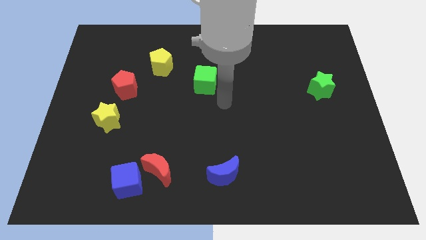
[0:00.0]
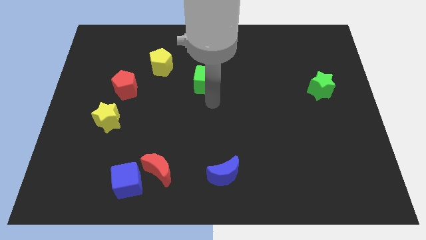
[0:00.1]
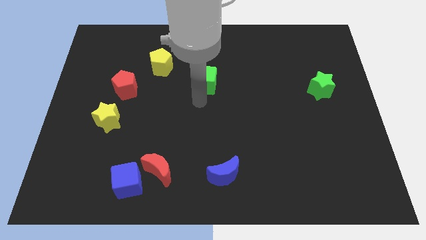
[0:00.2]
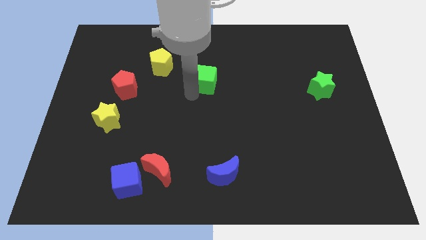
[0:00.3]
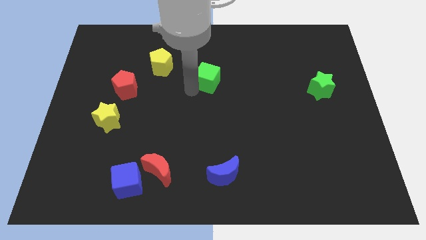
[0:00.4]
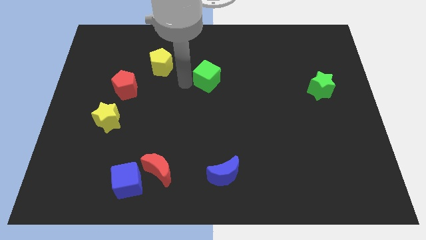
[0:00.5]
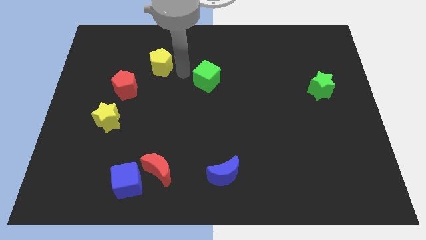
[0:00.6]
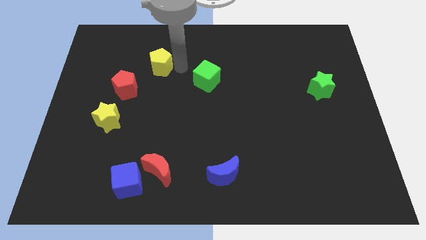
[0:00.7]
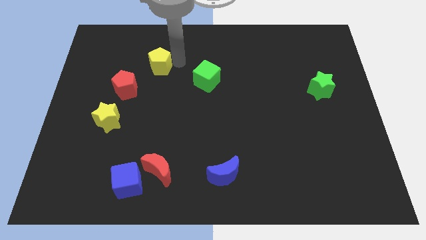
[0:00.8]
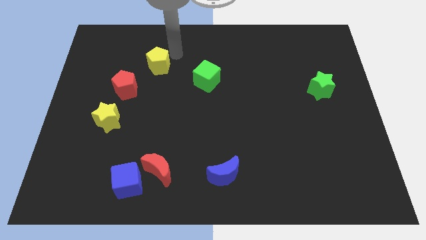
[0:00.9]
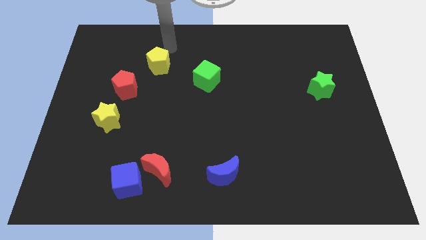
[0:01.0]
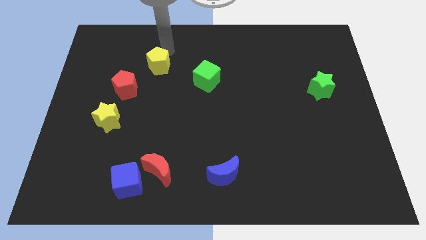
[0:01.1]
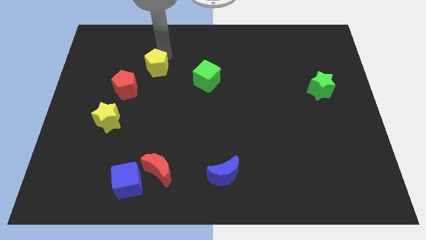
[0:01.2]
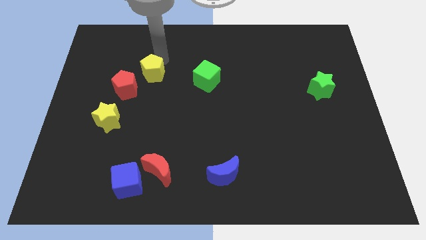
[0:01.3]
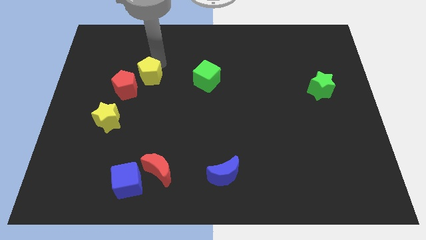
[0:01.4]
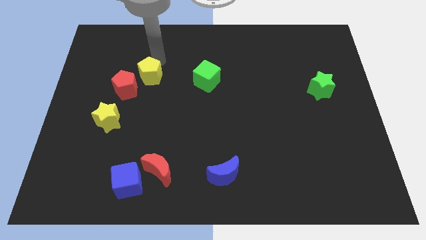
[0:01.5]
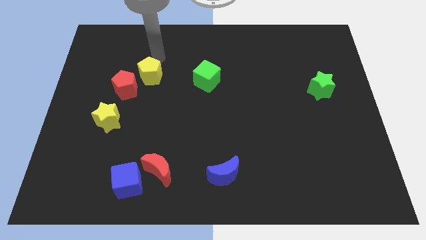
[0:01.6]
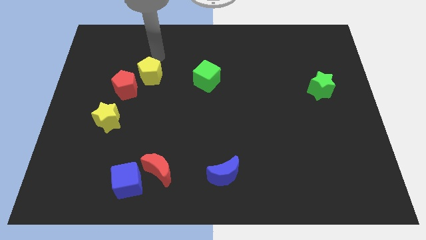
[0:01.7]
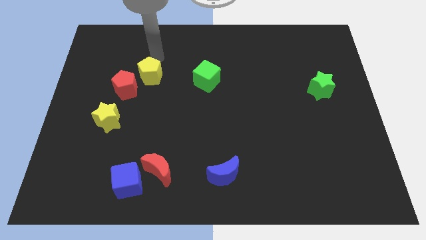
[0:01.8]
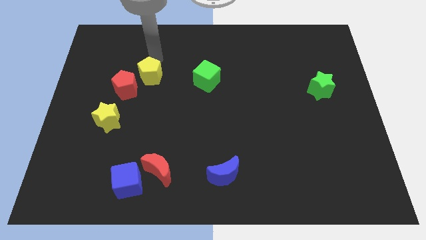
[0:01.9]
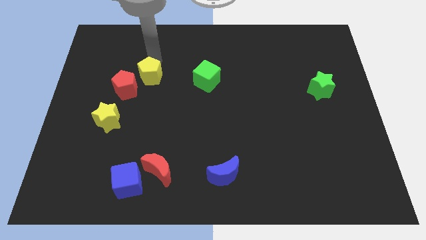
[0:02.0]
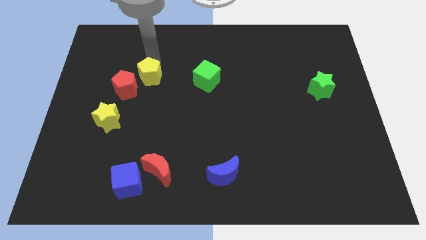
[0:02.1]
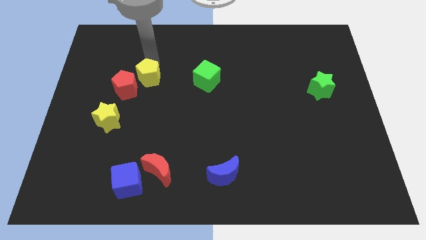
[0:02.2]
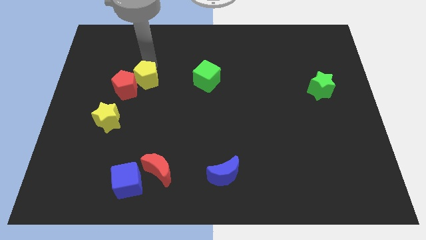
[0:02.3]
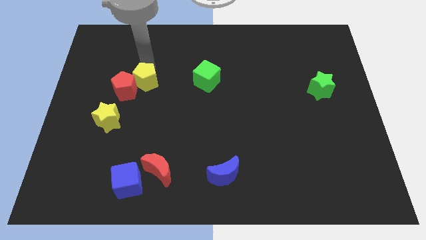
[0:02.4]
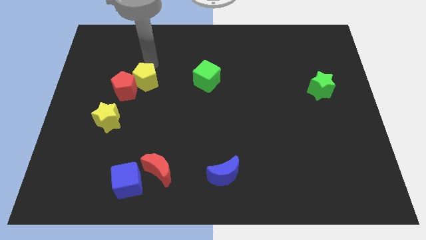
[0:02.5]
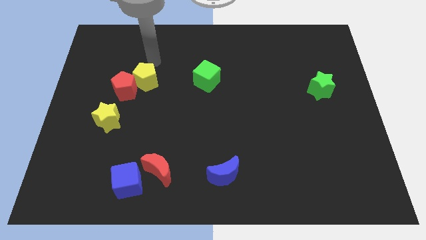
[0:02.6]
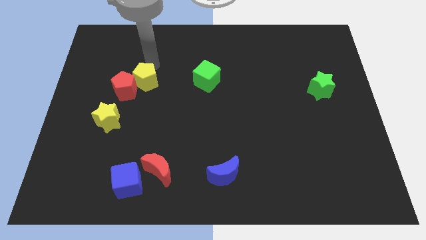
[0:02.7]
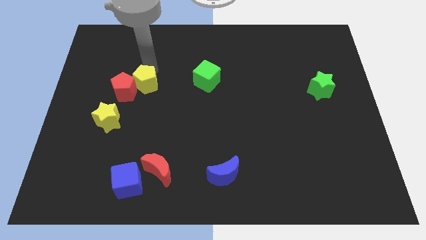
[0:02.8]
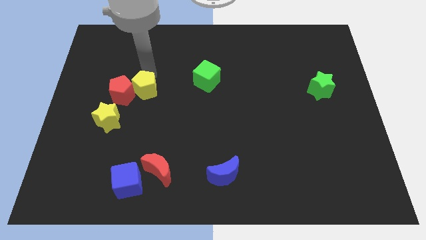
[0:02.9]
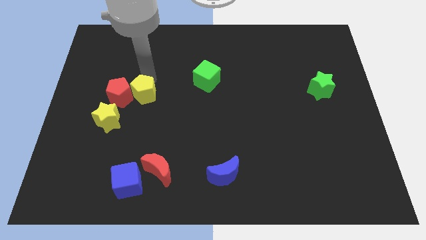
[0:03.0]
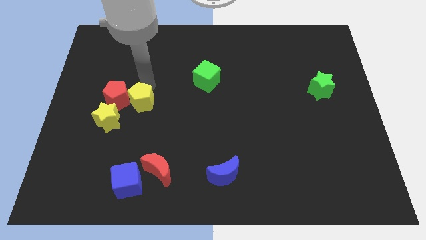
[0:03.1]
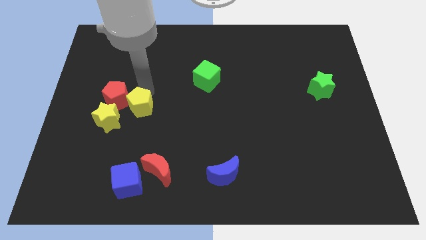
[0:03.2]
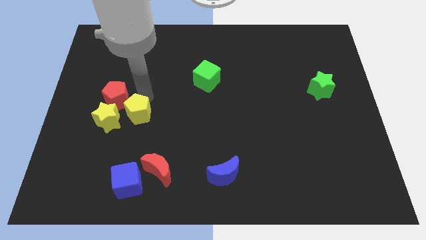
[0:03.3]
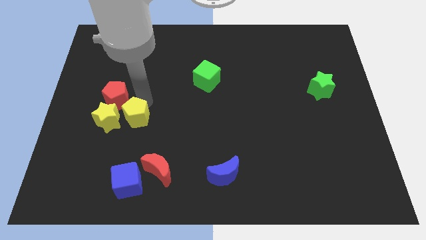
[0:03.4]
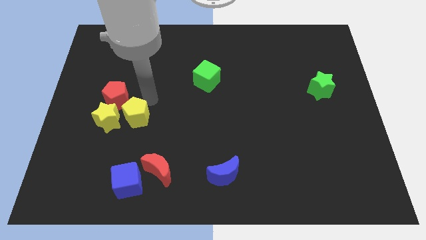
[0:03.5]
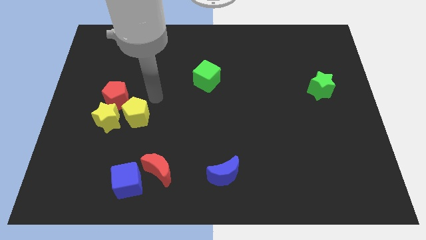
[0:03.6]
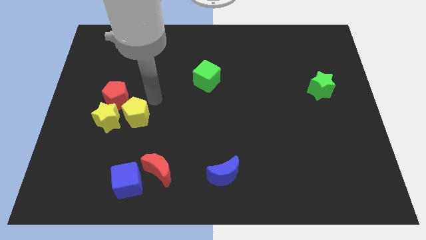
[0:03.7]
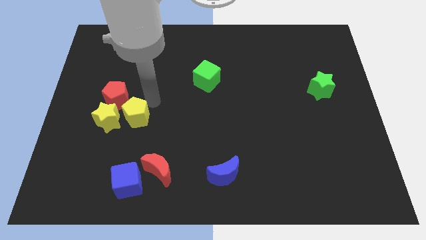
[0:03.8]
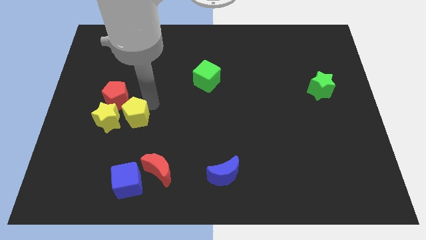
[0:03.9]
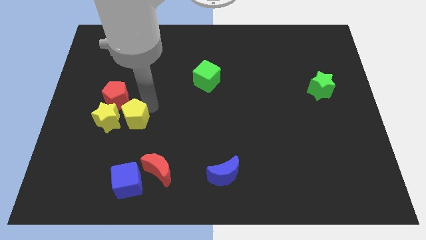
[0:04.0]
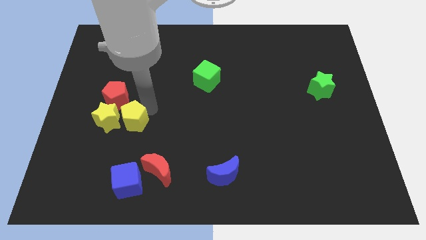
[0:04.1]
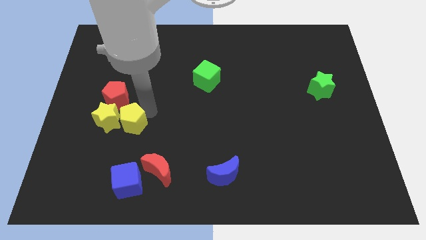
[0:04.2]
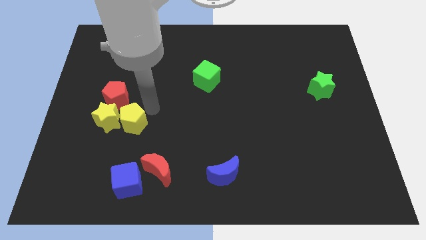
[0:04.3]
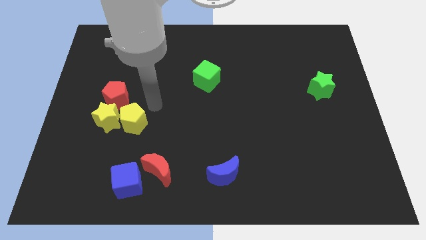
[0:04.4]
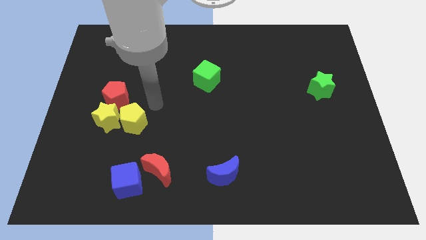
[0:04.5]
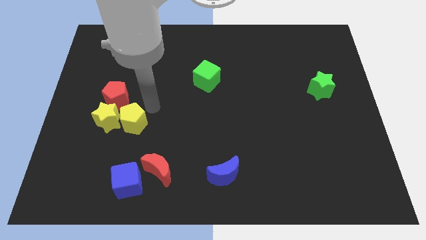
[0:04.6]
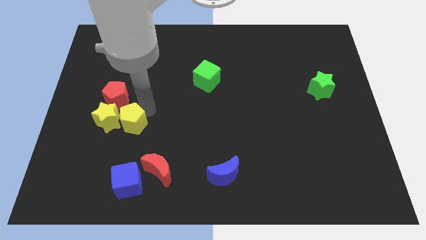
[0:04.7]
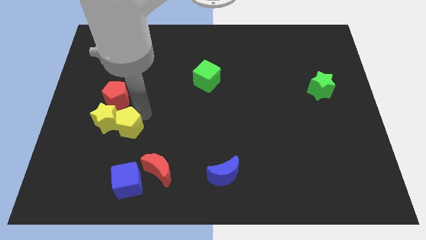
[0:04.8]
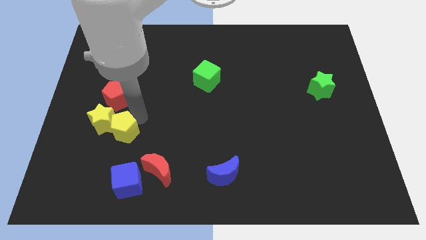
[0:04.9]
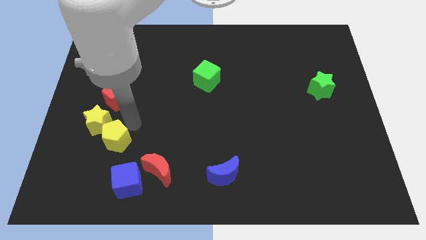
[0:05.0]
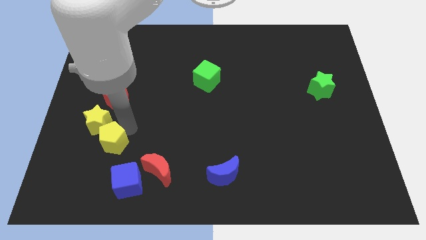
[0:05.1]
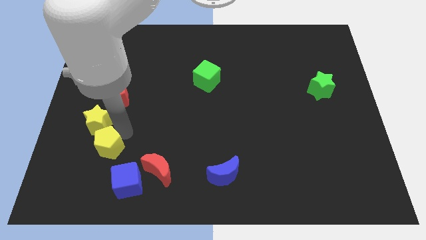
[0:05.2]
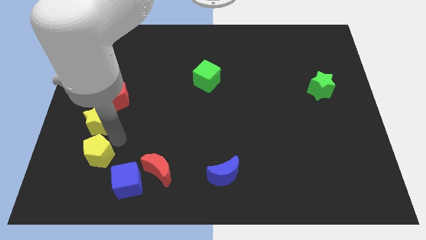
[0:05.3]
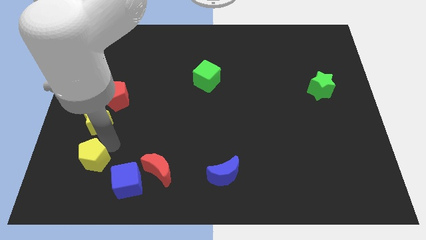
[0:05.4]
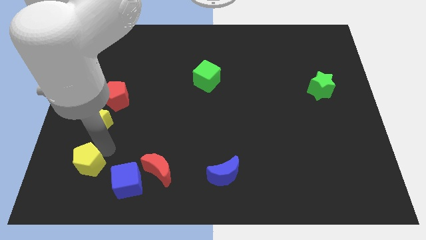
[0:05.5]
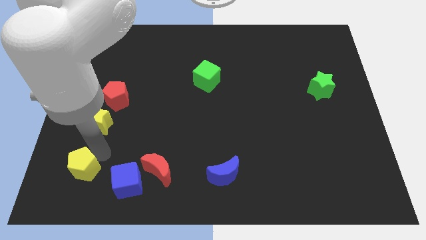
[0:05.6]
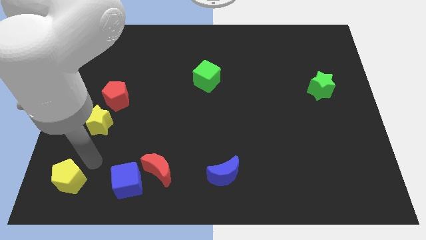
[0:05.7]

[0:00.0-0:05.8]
put the yellow pentagon to the bottom left

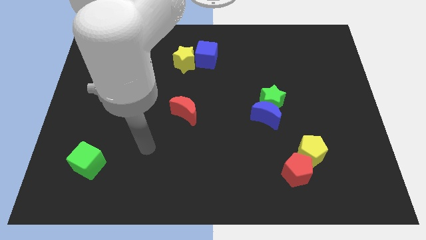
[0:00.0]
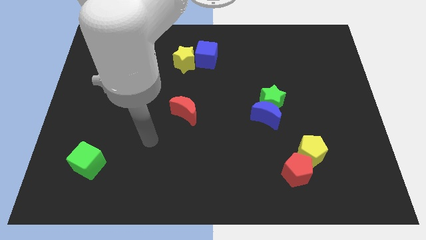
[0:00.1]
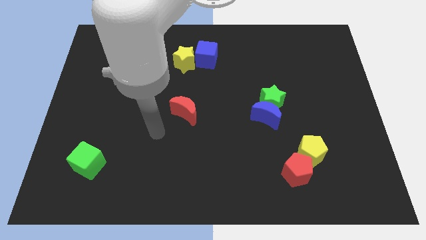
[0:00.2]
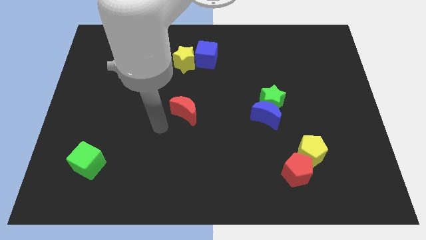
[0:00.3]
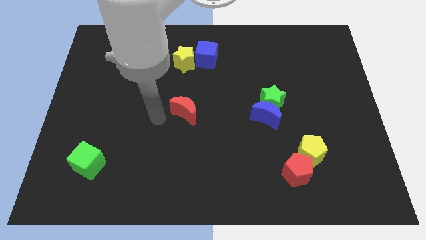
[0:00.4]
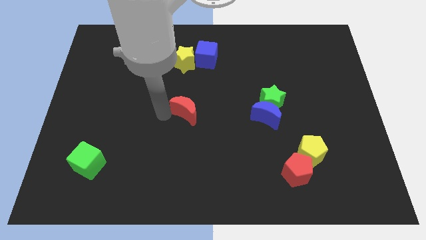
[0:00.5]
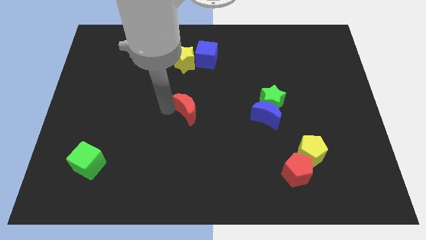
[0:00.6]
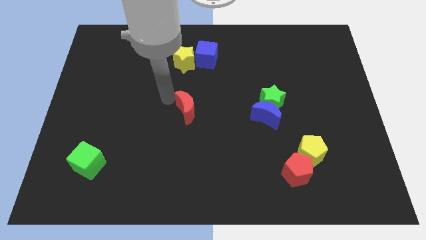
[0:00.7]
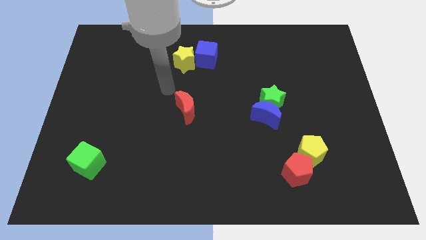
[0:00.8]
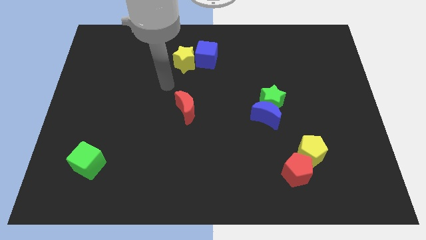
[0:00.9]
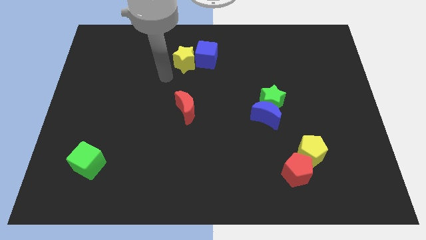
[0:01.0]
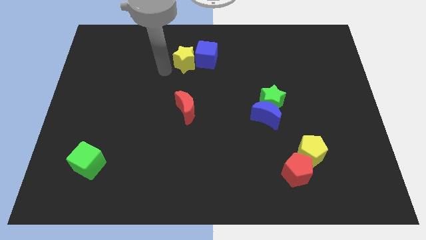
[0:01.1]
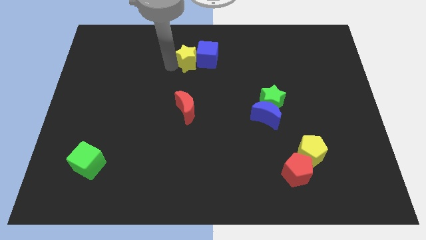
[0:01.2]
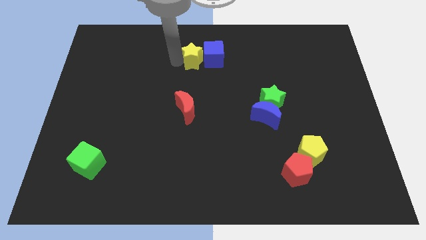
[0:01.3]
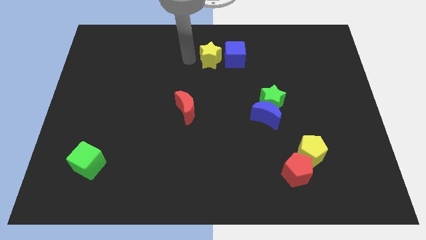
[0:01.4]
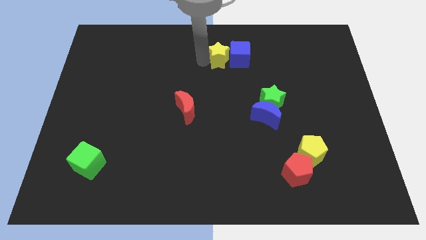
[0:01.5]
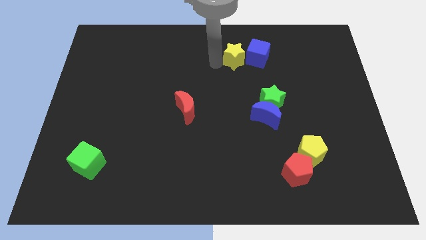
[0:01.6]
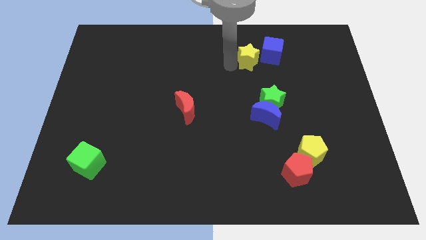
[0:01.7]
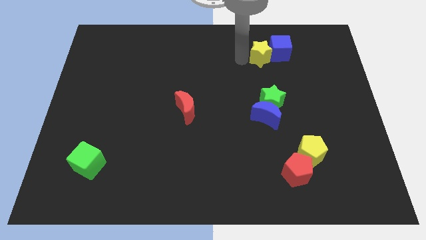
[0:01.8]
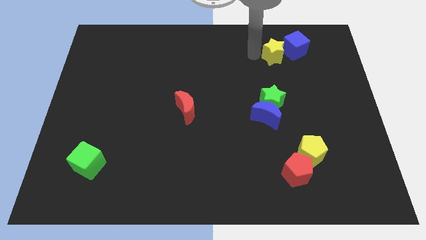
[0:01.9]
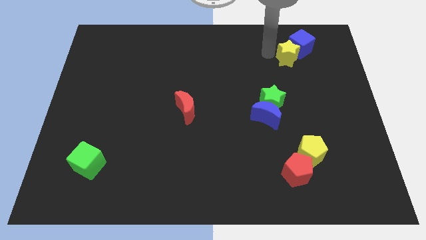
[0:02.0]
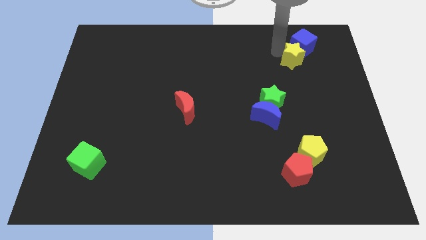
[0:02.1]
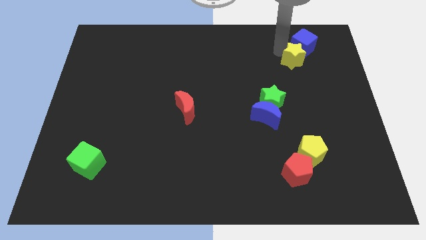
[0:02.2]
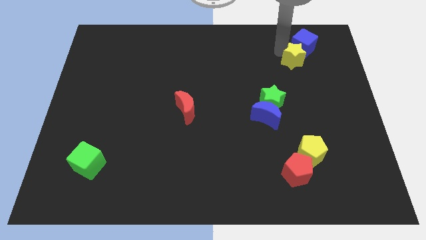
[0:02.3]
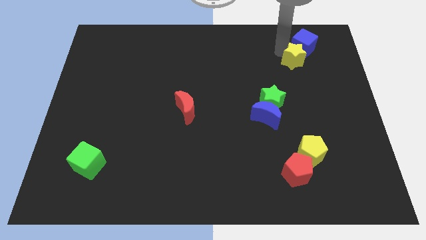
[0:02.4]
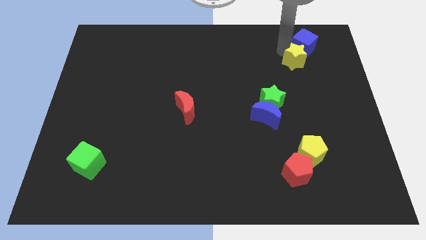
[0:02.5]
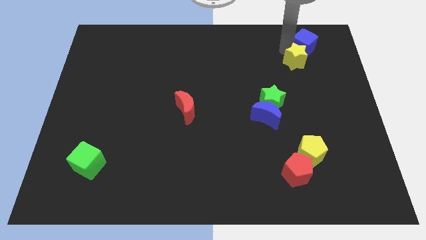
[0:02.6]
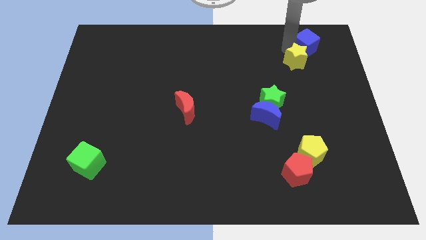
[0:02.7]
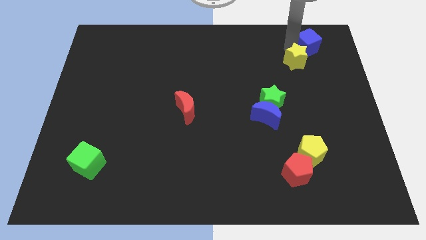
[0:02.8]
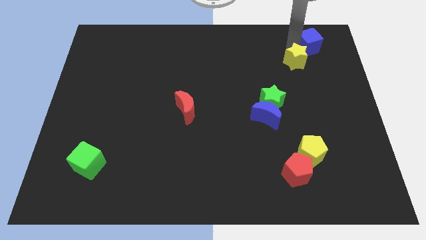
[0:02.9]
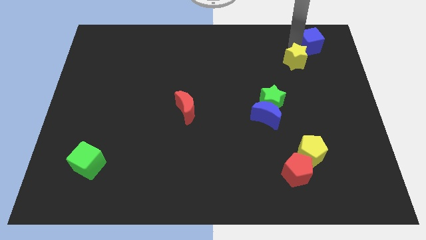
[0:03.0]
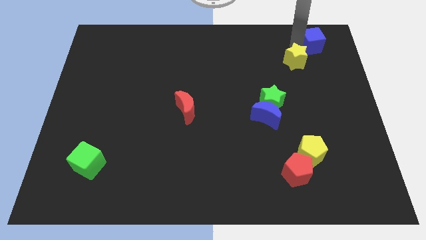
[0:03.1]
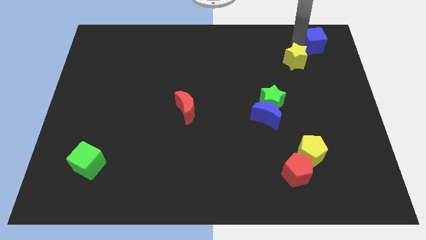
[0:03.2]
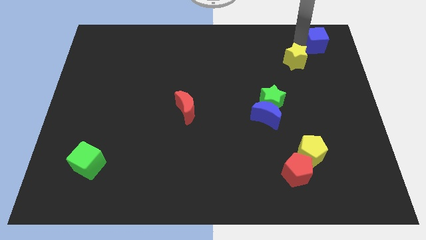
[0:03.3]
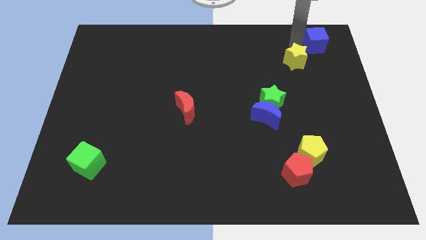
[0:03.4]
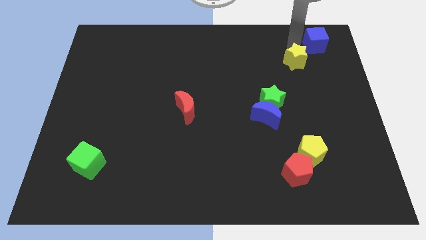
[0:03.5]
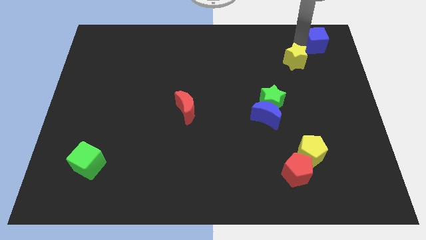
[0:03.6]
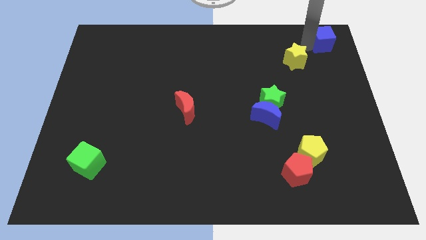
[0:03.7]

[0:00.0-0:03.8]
slide the blue cube to the top right of the board
